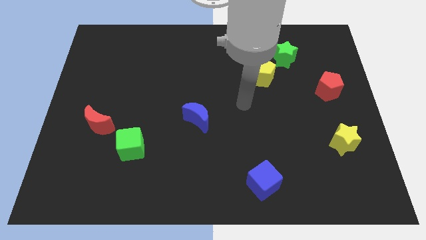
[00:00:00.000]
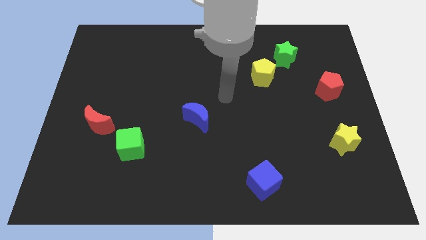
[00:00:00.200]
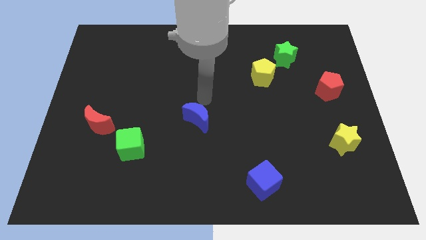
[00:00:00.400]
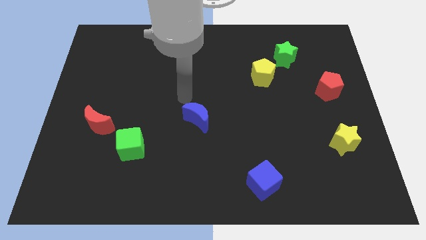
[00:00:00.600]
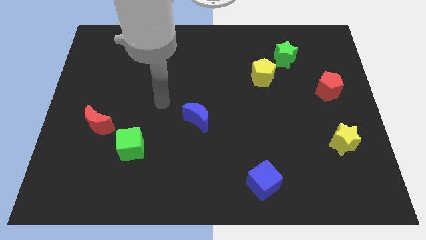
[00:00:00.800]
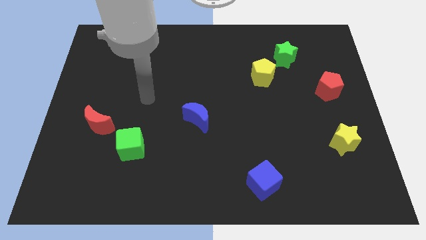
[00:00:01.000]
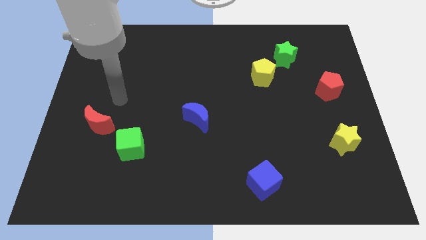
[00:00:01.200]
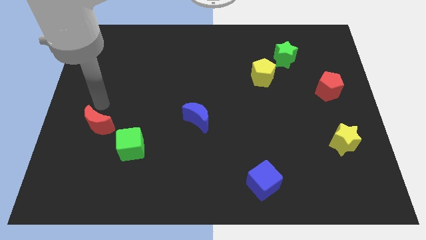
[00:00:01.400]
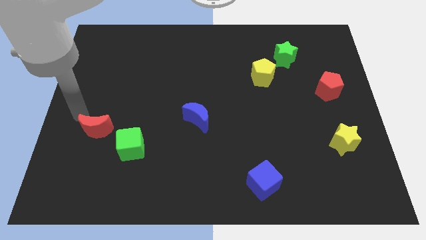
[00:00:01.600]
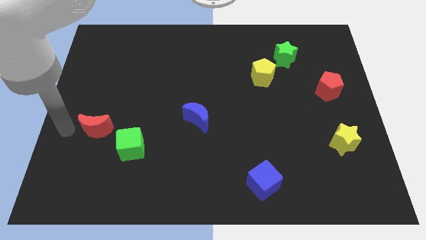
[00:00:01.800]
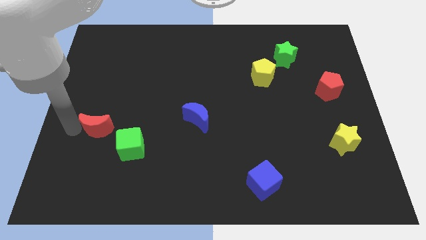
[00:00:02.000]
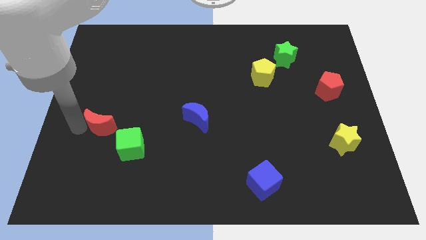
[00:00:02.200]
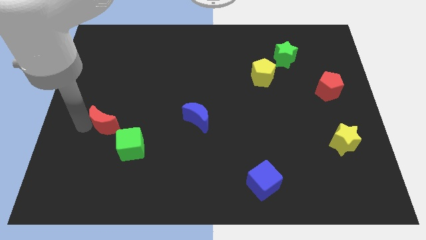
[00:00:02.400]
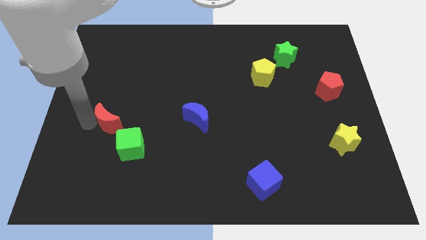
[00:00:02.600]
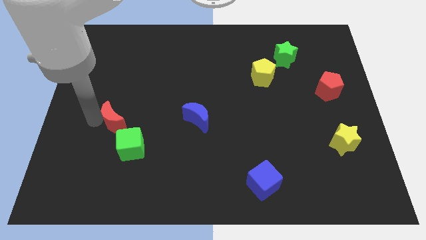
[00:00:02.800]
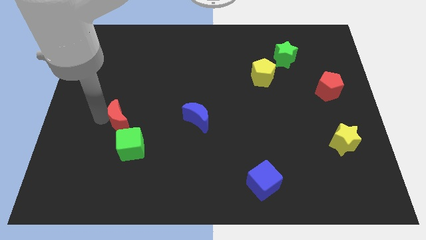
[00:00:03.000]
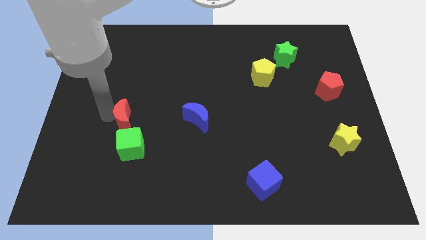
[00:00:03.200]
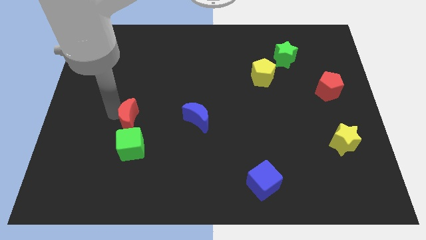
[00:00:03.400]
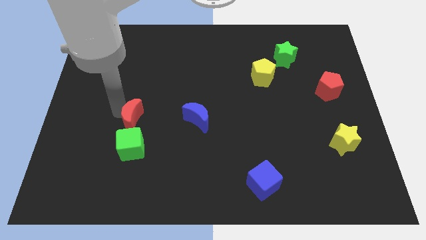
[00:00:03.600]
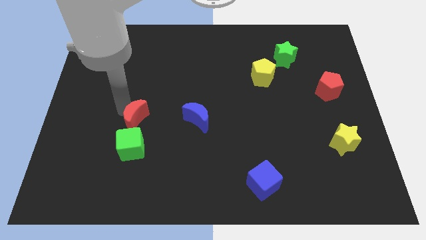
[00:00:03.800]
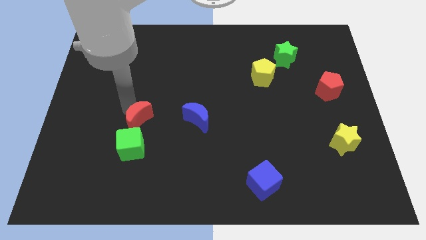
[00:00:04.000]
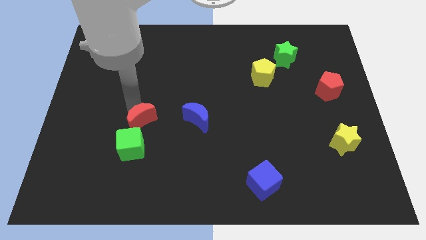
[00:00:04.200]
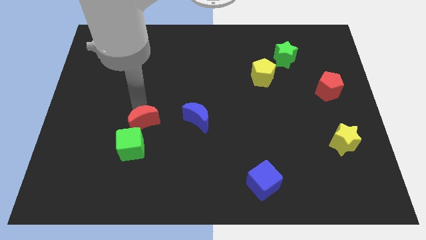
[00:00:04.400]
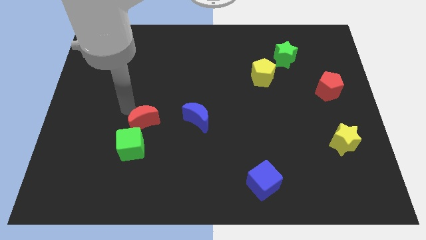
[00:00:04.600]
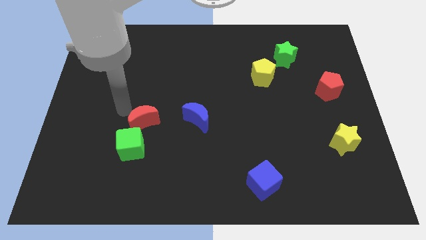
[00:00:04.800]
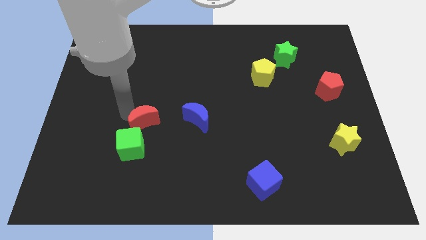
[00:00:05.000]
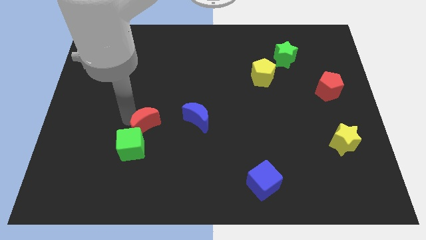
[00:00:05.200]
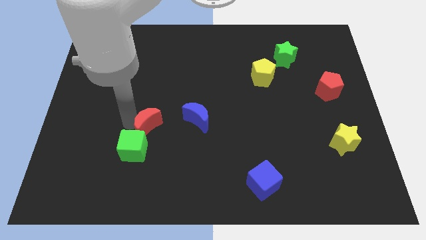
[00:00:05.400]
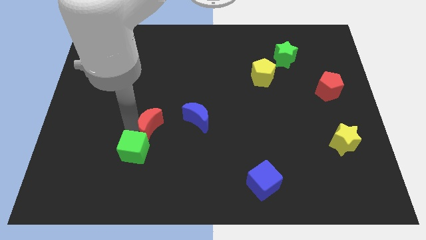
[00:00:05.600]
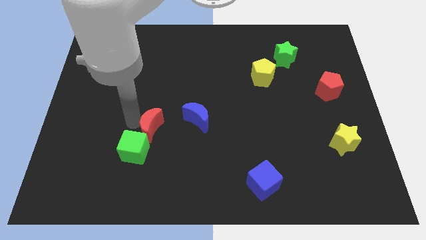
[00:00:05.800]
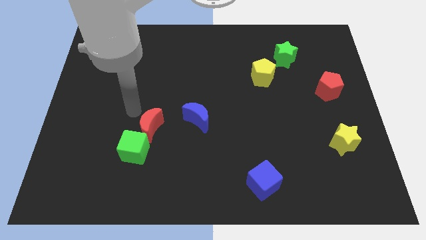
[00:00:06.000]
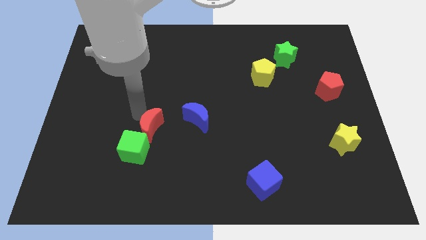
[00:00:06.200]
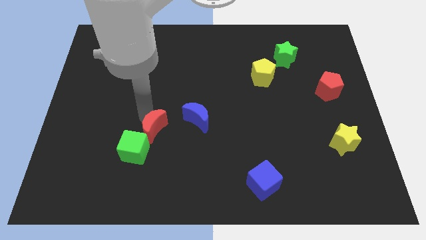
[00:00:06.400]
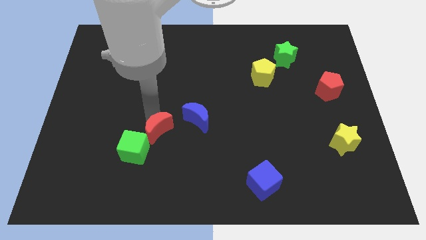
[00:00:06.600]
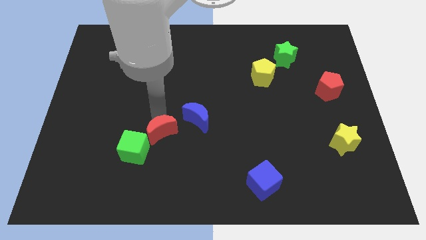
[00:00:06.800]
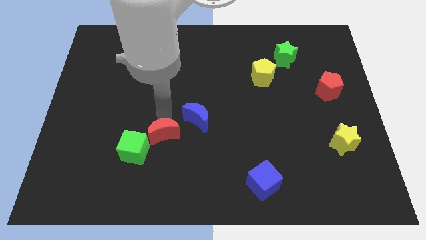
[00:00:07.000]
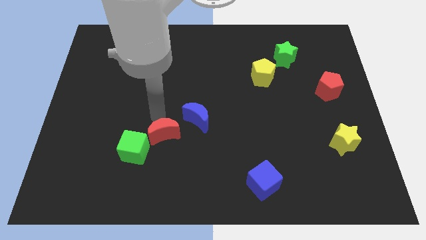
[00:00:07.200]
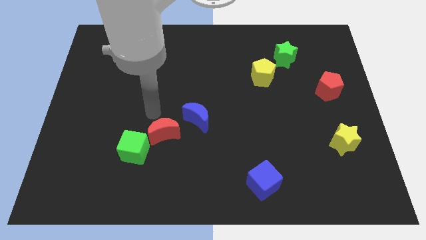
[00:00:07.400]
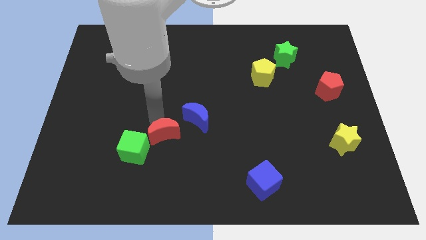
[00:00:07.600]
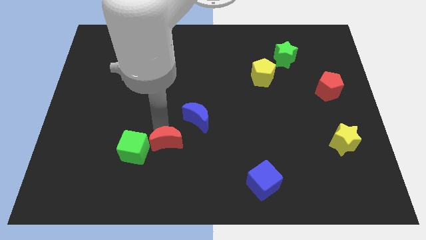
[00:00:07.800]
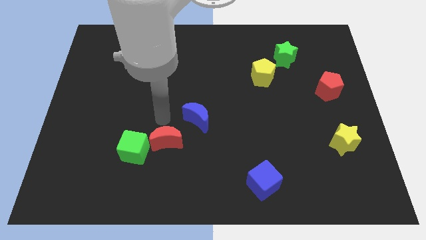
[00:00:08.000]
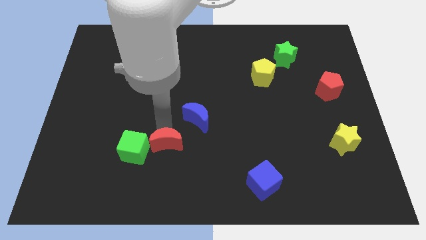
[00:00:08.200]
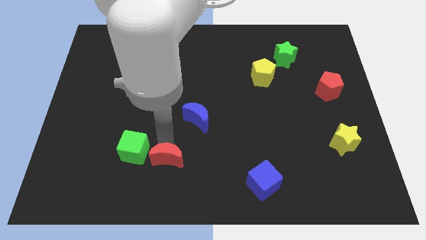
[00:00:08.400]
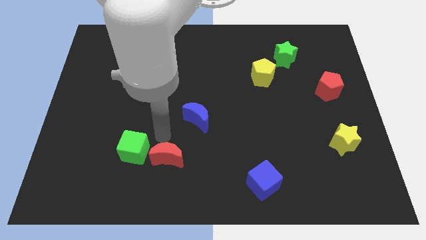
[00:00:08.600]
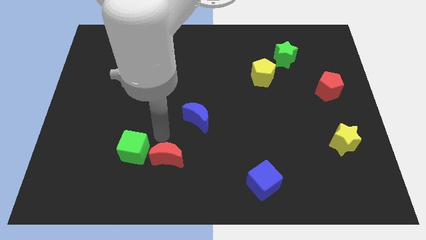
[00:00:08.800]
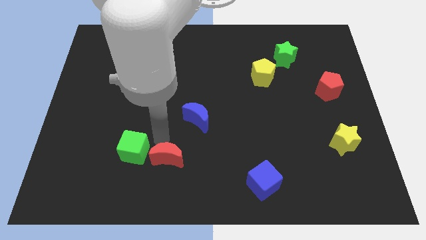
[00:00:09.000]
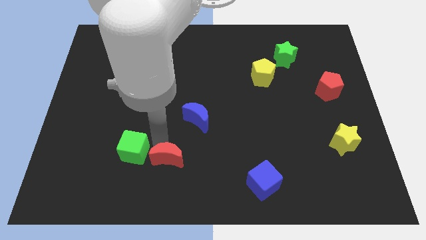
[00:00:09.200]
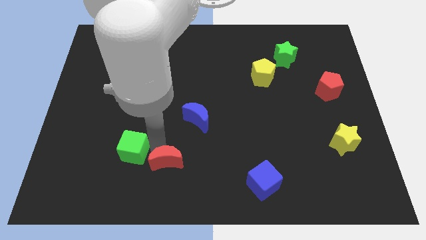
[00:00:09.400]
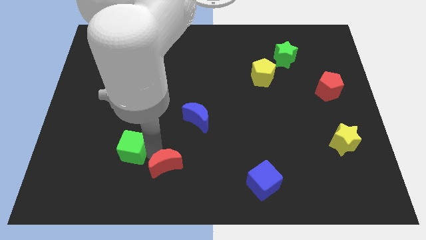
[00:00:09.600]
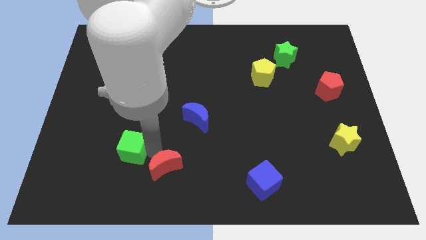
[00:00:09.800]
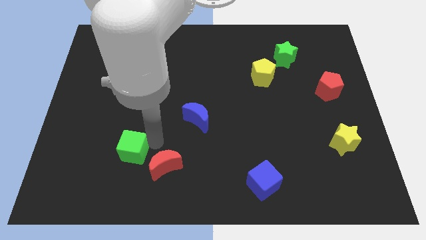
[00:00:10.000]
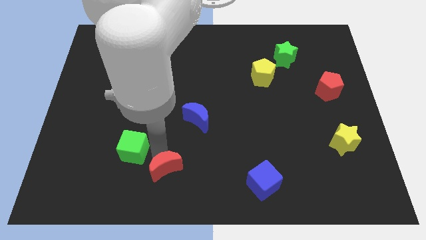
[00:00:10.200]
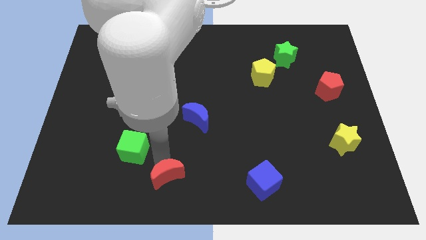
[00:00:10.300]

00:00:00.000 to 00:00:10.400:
slide the red moon to the bottom side

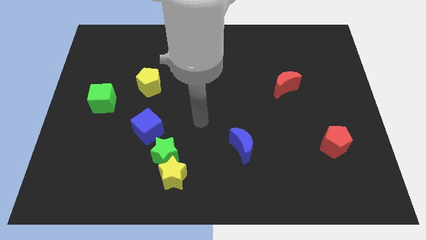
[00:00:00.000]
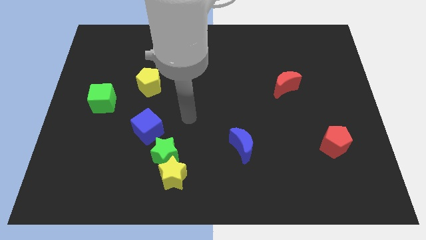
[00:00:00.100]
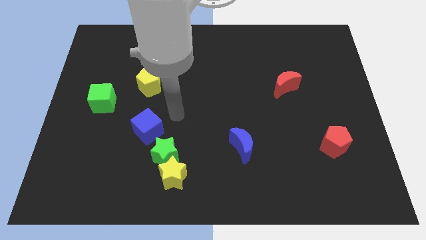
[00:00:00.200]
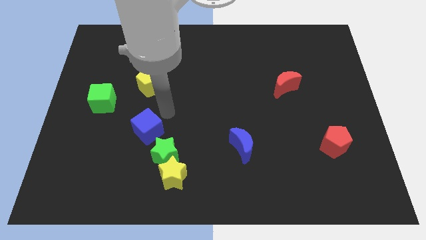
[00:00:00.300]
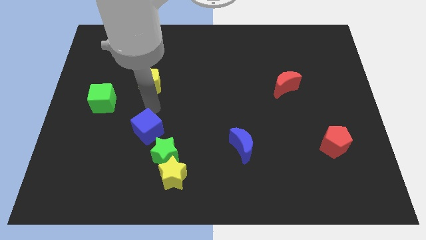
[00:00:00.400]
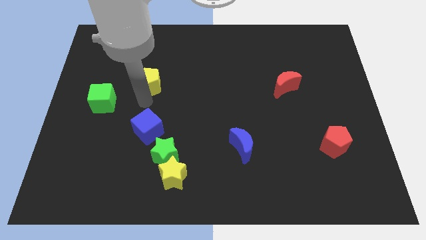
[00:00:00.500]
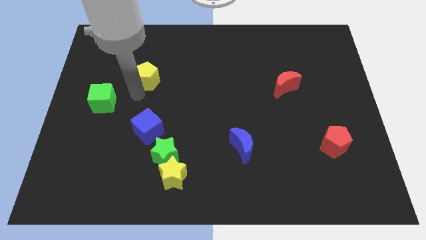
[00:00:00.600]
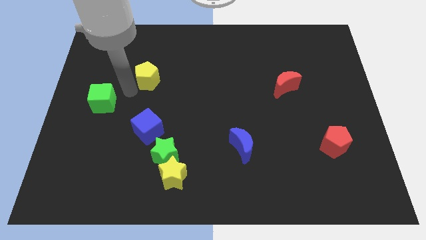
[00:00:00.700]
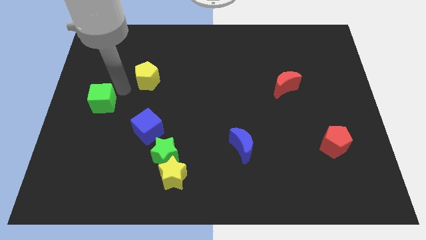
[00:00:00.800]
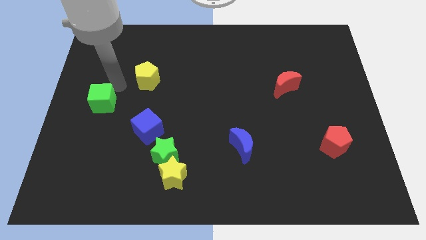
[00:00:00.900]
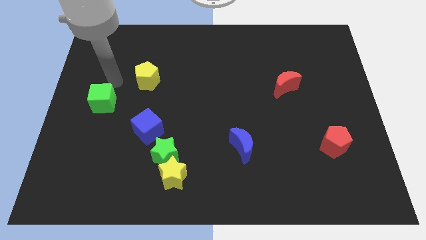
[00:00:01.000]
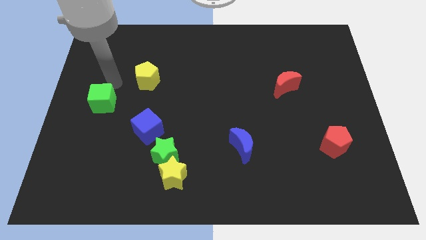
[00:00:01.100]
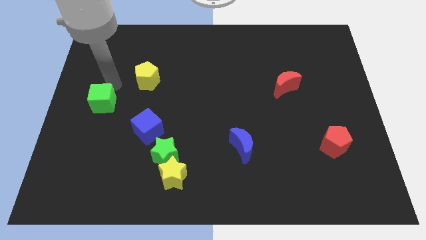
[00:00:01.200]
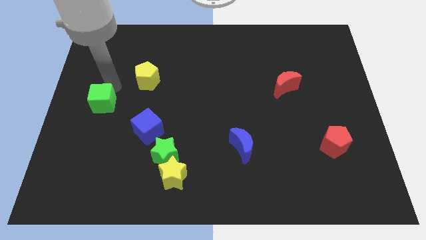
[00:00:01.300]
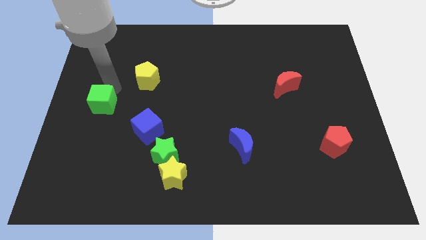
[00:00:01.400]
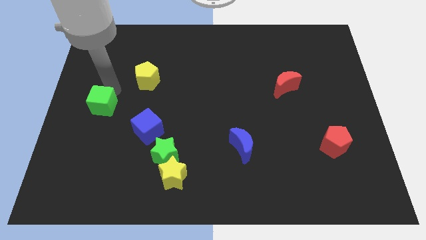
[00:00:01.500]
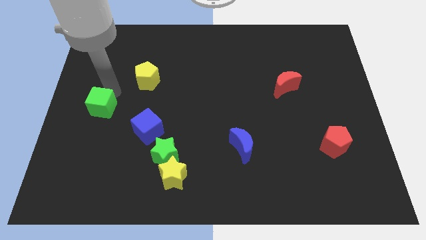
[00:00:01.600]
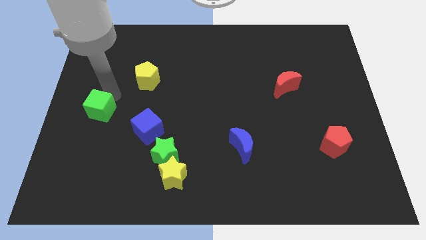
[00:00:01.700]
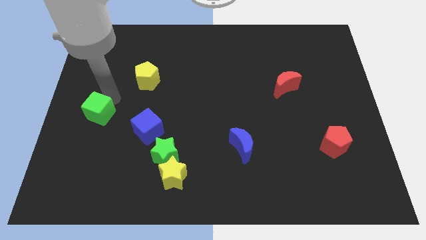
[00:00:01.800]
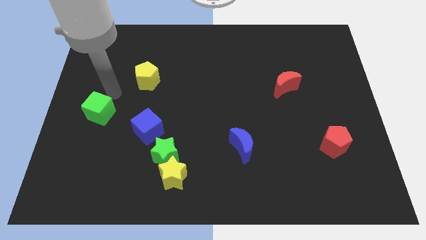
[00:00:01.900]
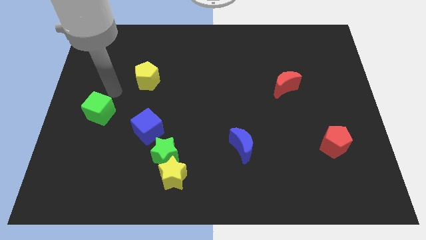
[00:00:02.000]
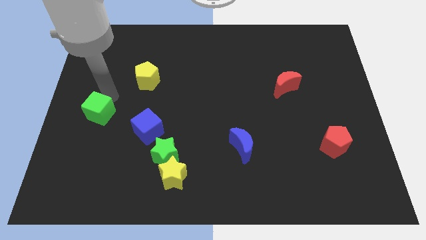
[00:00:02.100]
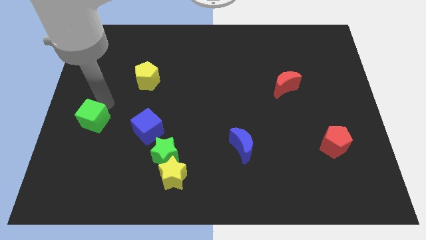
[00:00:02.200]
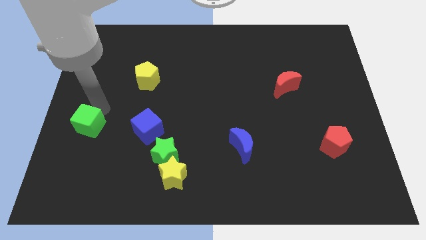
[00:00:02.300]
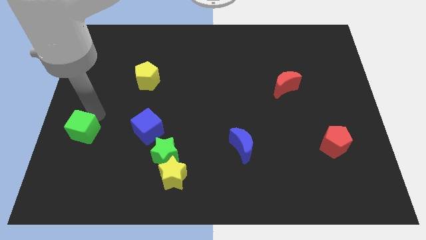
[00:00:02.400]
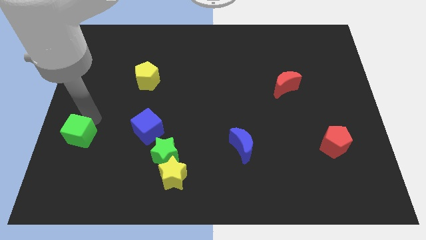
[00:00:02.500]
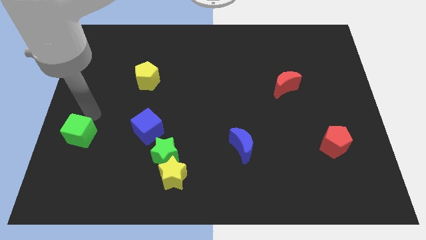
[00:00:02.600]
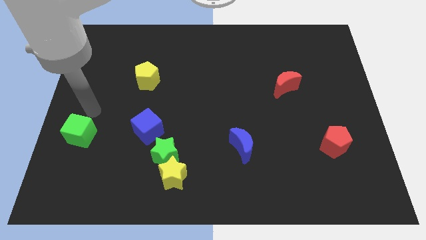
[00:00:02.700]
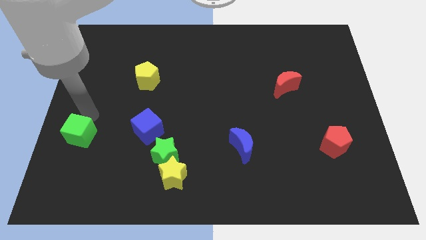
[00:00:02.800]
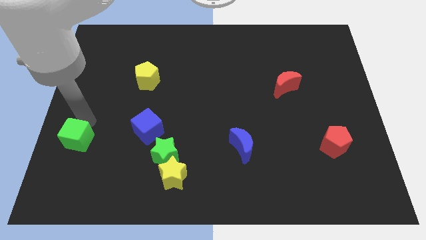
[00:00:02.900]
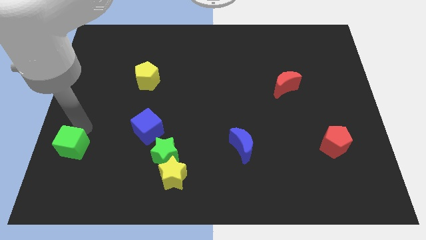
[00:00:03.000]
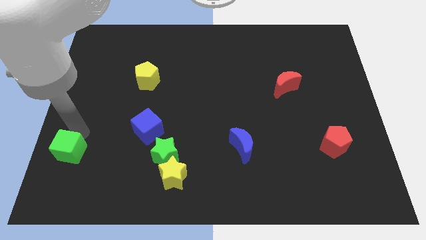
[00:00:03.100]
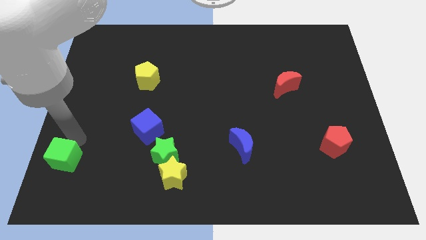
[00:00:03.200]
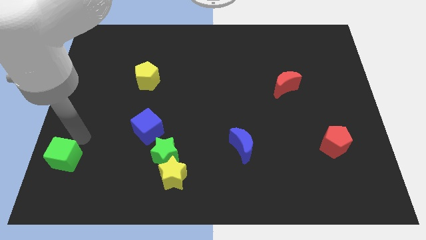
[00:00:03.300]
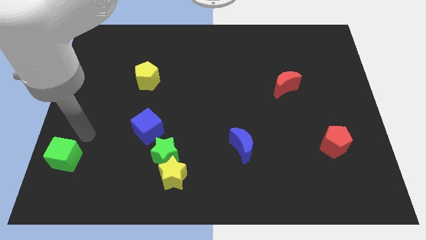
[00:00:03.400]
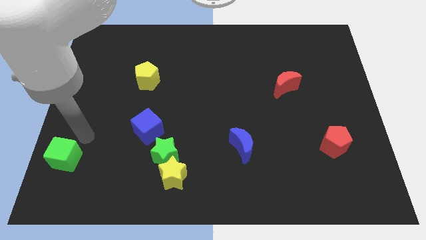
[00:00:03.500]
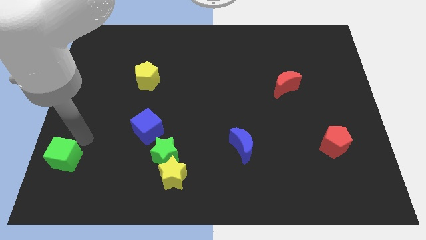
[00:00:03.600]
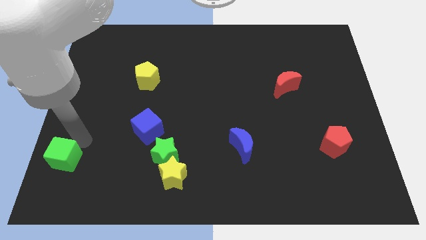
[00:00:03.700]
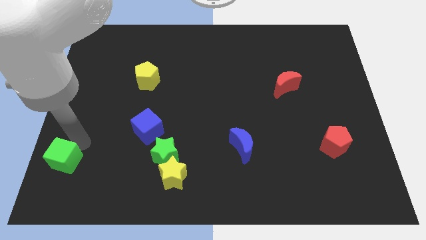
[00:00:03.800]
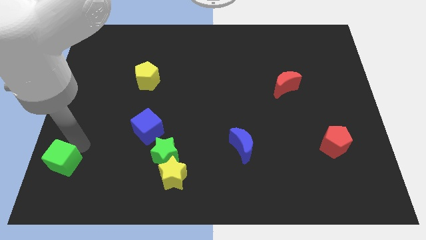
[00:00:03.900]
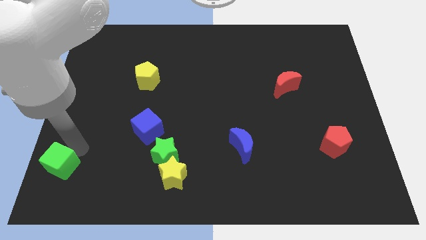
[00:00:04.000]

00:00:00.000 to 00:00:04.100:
push the green cube to the lower left corner
